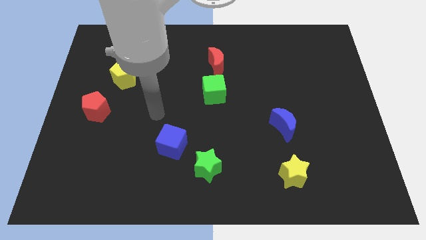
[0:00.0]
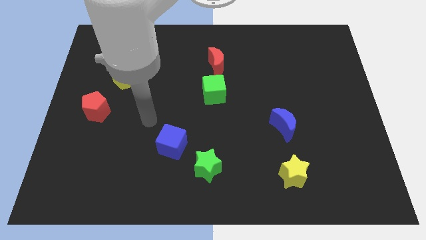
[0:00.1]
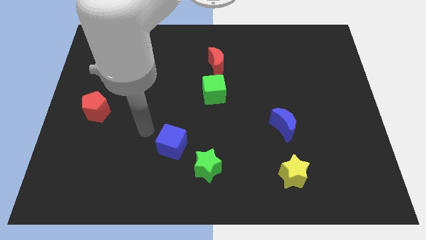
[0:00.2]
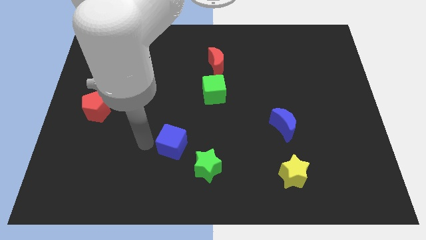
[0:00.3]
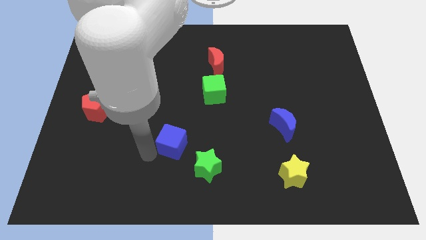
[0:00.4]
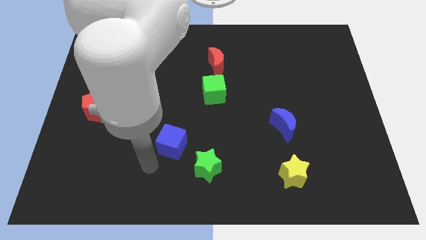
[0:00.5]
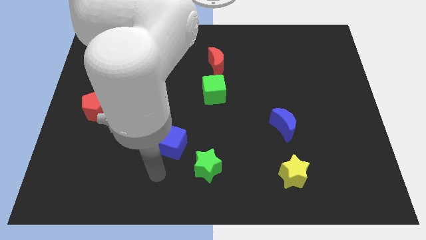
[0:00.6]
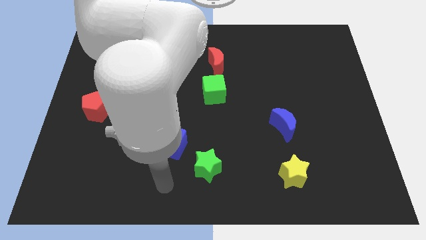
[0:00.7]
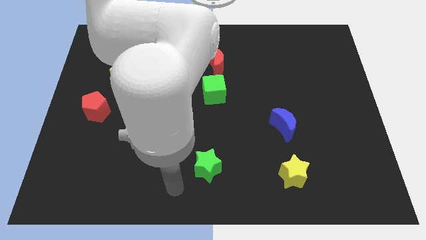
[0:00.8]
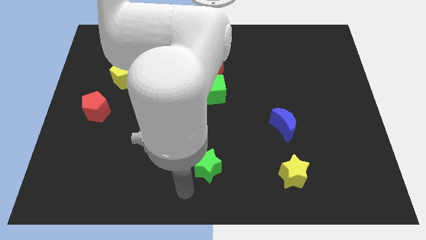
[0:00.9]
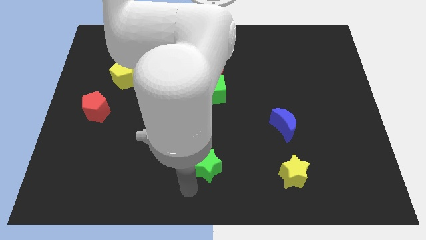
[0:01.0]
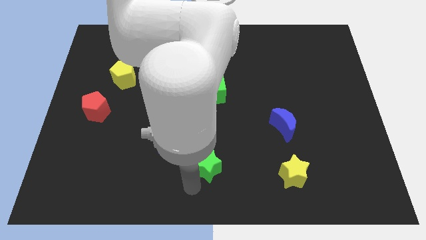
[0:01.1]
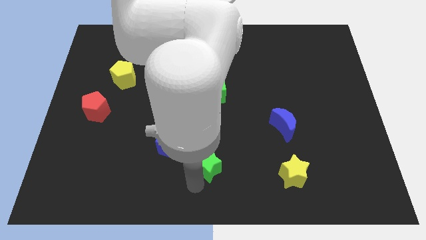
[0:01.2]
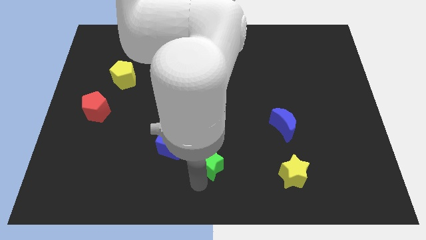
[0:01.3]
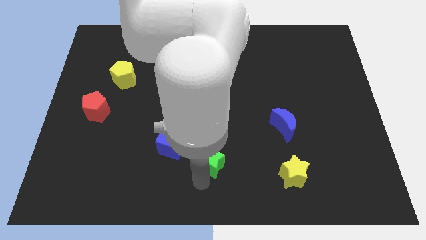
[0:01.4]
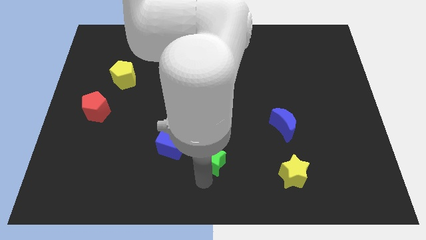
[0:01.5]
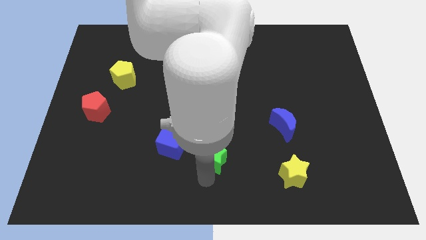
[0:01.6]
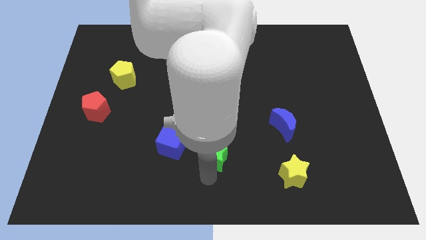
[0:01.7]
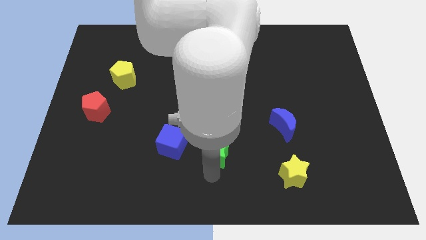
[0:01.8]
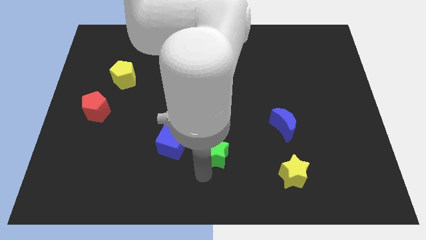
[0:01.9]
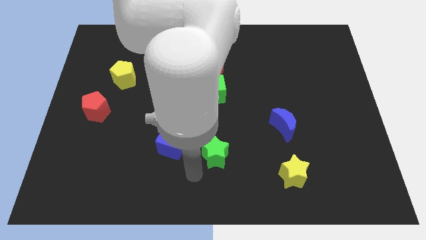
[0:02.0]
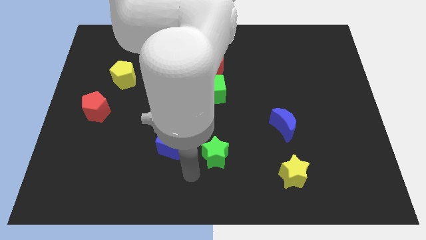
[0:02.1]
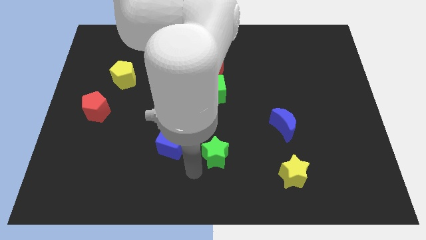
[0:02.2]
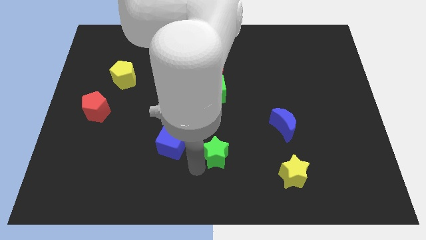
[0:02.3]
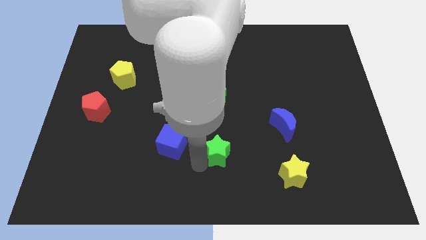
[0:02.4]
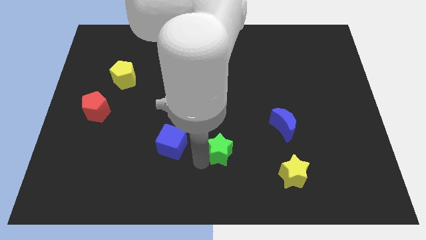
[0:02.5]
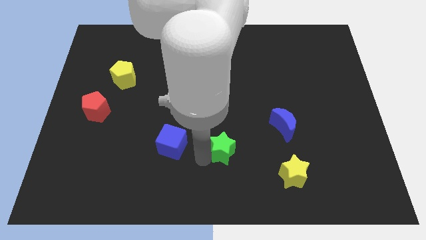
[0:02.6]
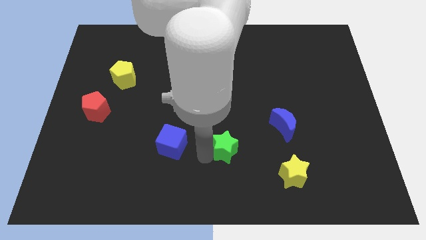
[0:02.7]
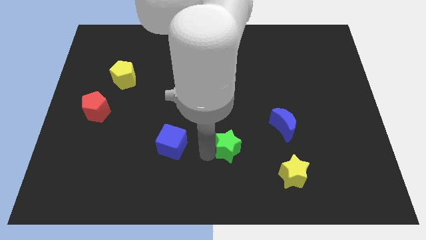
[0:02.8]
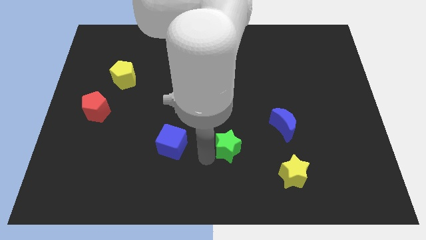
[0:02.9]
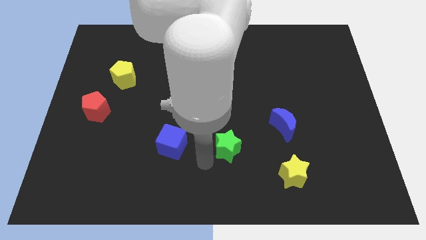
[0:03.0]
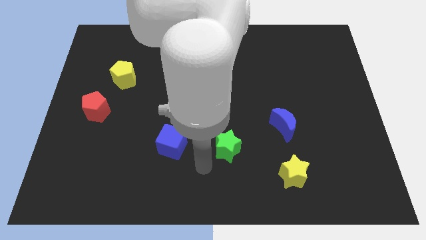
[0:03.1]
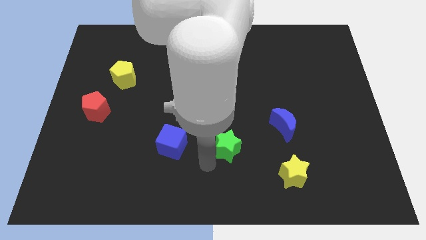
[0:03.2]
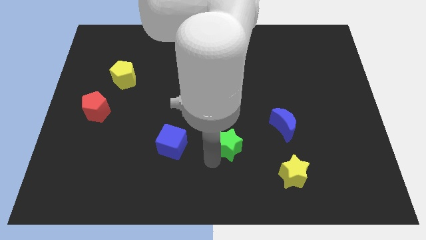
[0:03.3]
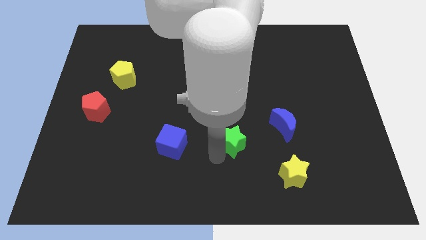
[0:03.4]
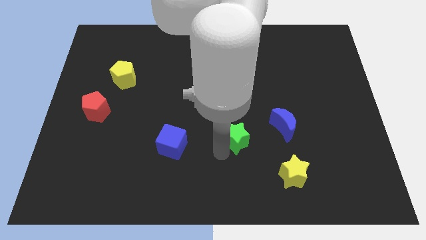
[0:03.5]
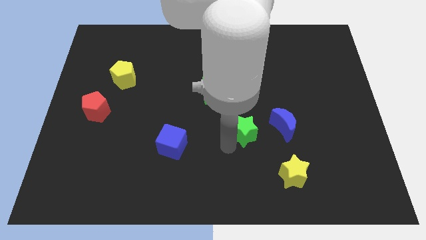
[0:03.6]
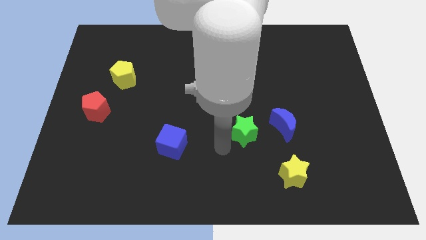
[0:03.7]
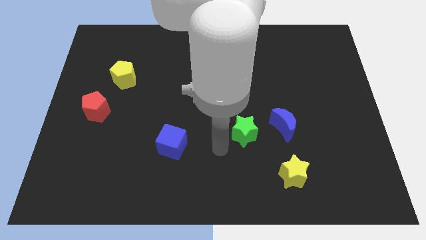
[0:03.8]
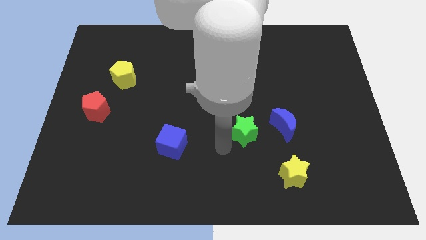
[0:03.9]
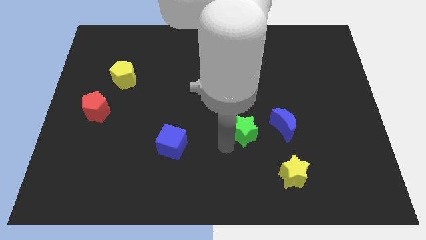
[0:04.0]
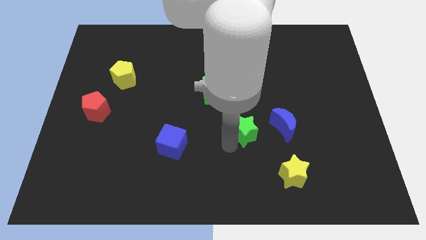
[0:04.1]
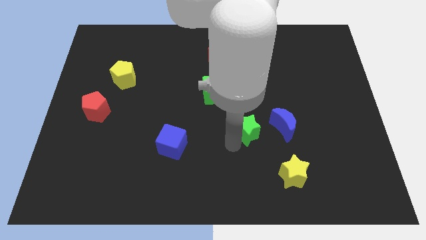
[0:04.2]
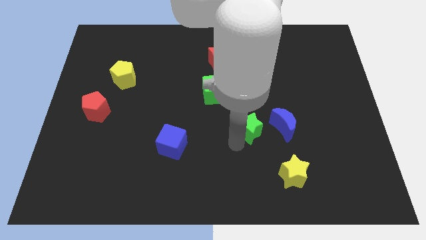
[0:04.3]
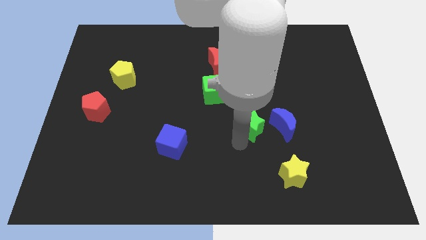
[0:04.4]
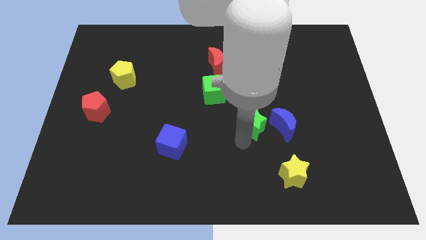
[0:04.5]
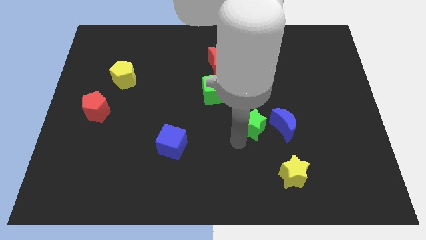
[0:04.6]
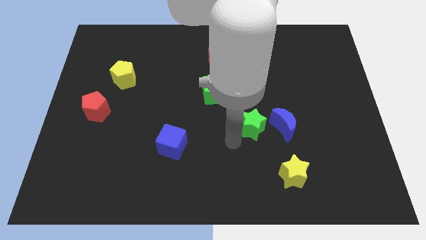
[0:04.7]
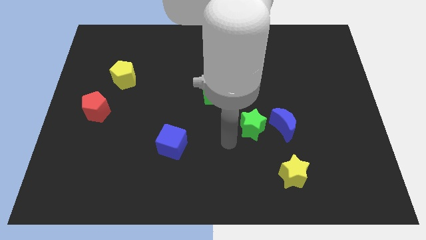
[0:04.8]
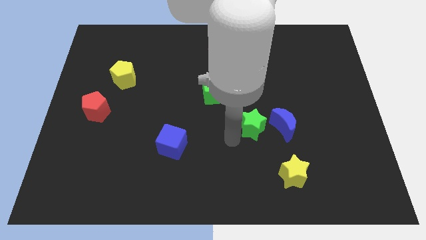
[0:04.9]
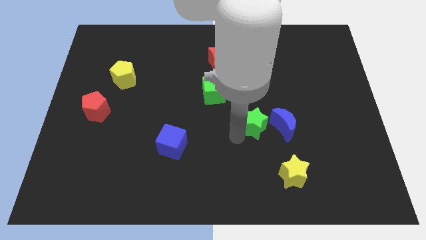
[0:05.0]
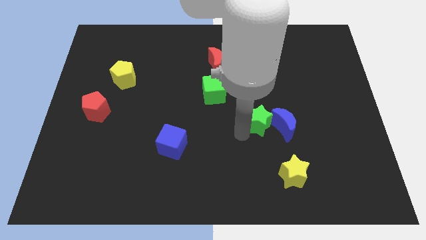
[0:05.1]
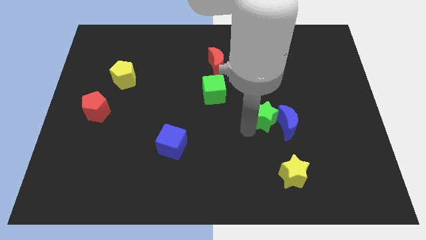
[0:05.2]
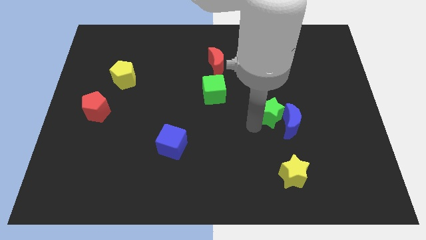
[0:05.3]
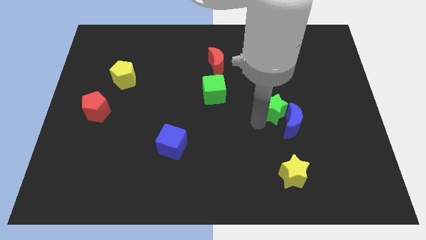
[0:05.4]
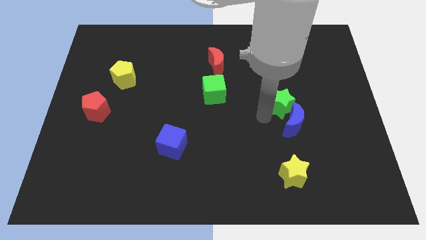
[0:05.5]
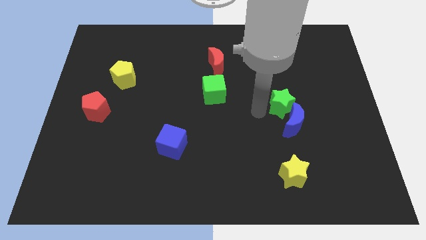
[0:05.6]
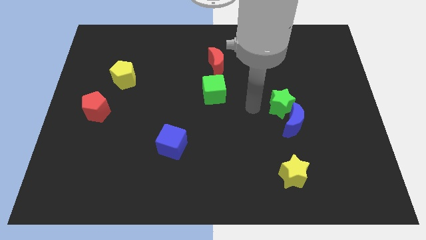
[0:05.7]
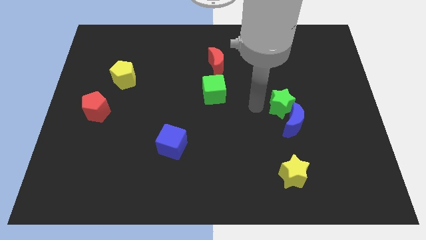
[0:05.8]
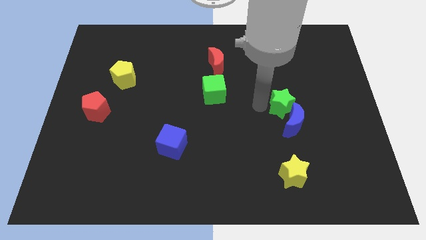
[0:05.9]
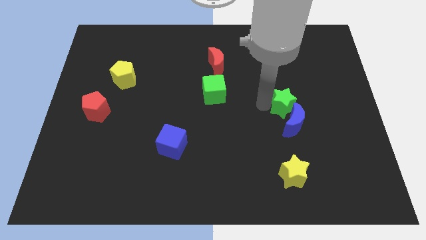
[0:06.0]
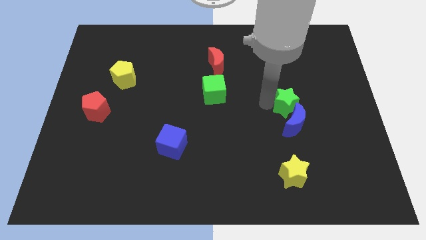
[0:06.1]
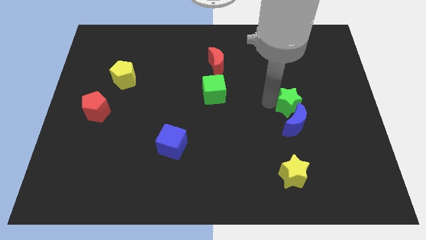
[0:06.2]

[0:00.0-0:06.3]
put the green star to the top right of the blue moon

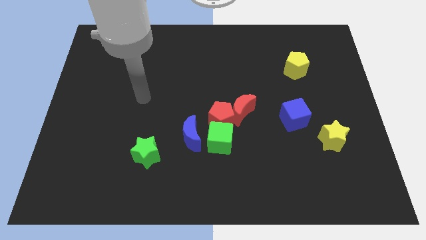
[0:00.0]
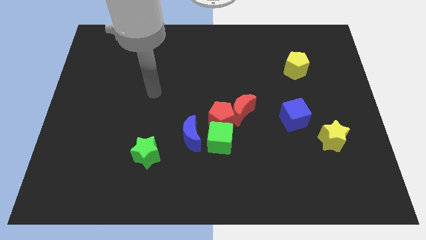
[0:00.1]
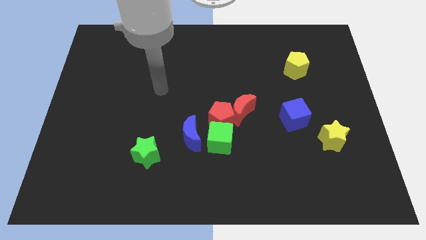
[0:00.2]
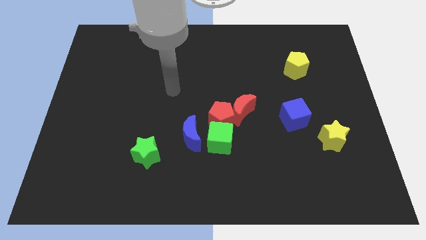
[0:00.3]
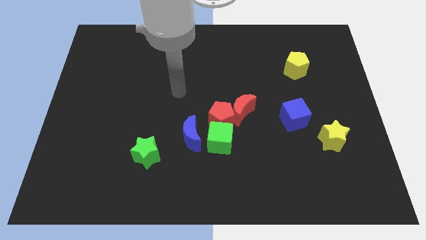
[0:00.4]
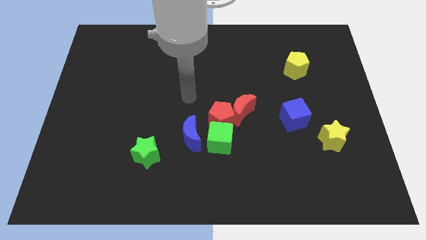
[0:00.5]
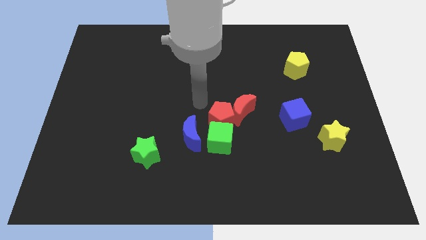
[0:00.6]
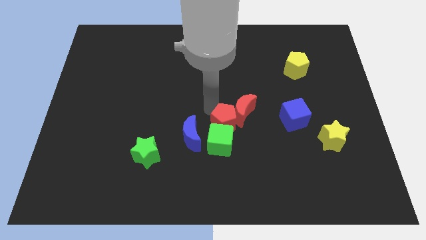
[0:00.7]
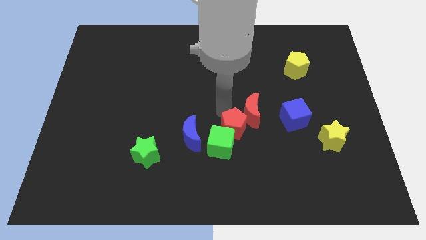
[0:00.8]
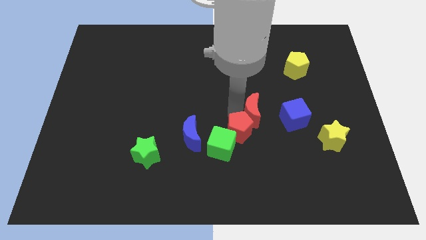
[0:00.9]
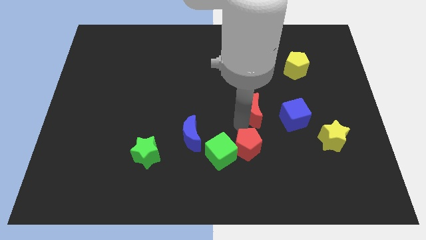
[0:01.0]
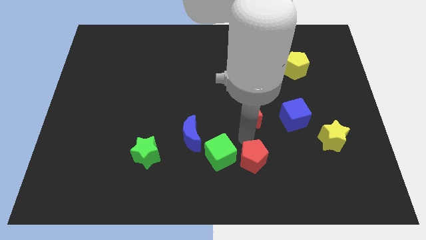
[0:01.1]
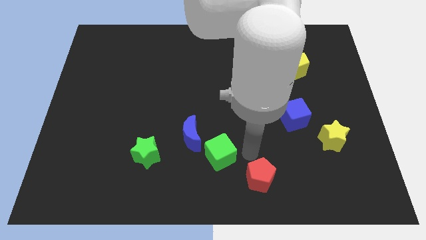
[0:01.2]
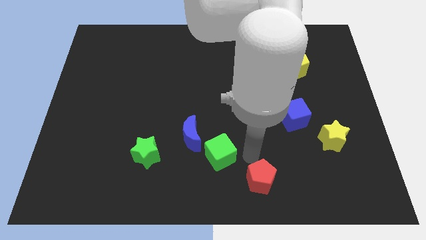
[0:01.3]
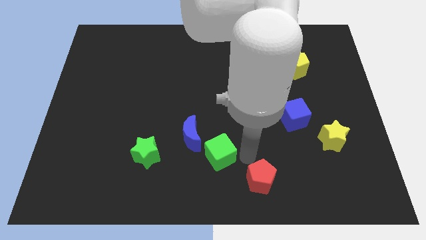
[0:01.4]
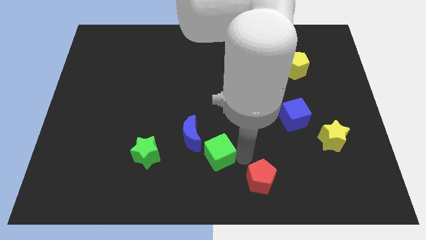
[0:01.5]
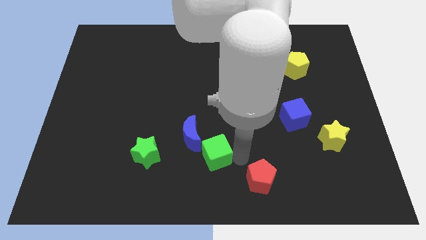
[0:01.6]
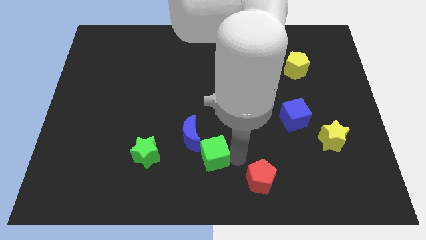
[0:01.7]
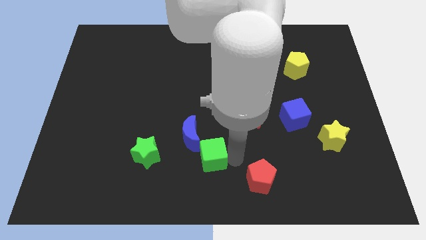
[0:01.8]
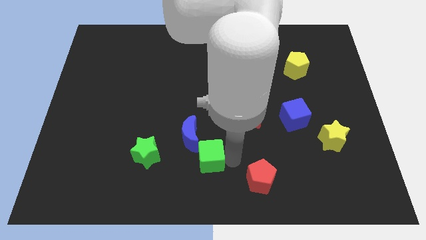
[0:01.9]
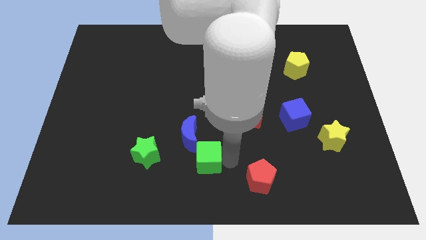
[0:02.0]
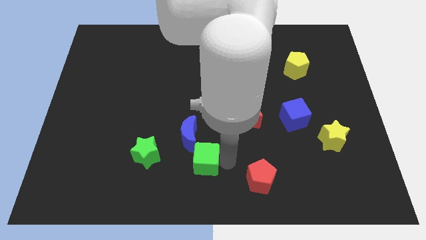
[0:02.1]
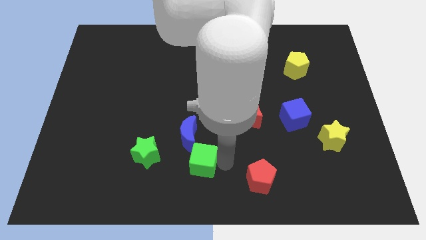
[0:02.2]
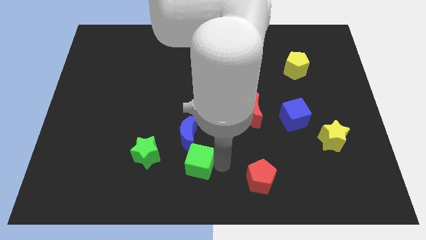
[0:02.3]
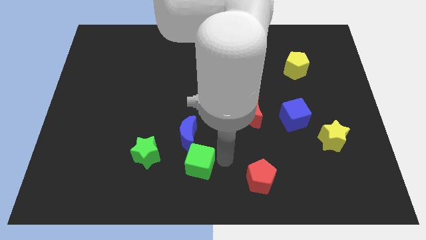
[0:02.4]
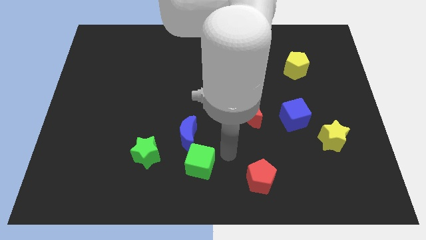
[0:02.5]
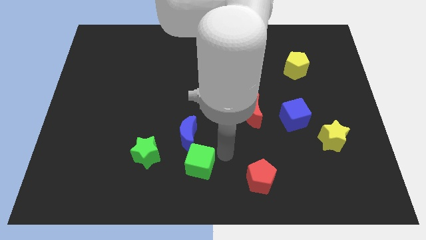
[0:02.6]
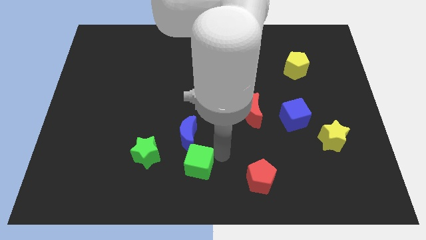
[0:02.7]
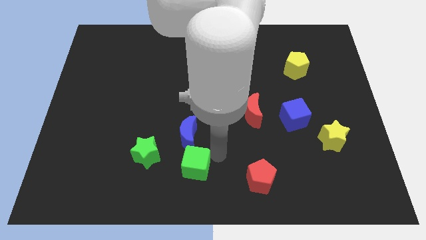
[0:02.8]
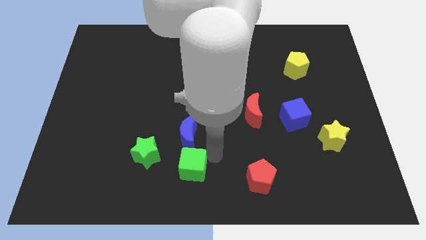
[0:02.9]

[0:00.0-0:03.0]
slide the green cube to the bottom right side of the green star
